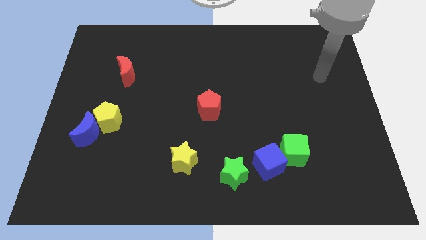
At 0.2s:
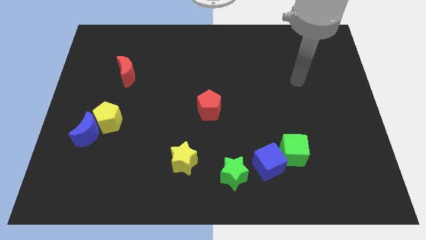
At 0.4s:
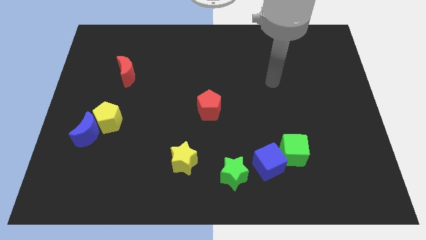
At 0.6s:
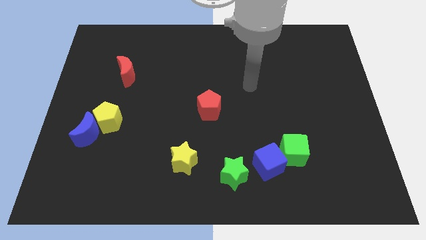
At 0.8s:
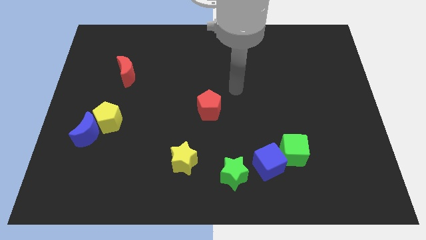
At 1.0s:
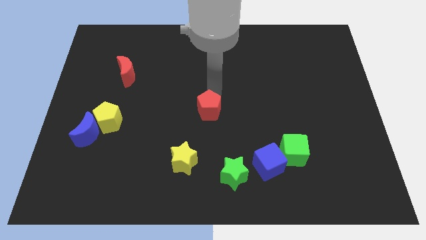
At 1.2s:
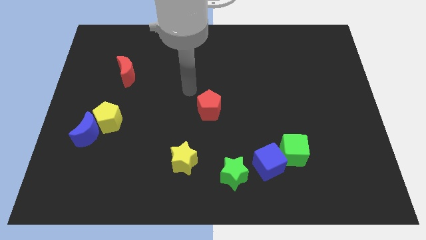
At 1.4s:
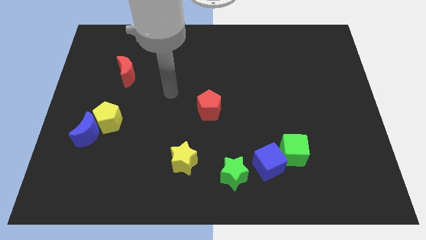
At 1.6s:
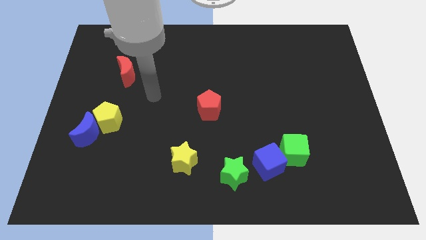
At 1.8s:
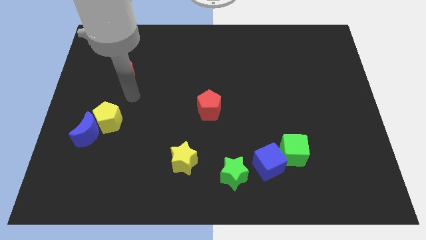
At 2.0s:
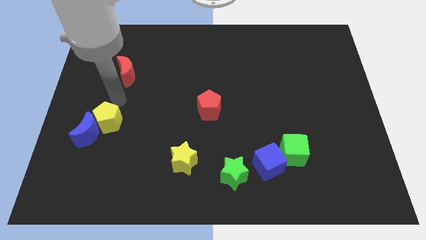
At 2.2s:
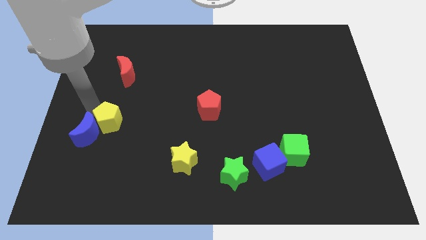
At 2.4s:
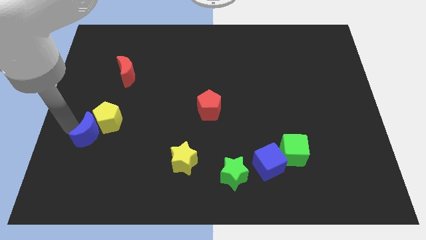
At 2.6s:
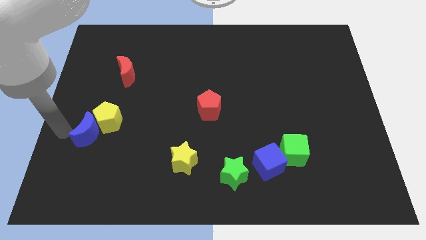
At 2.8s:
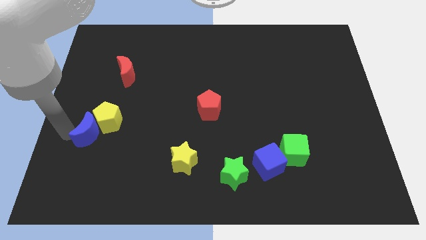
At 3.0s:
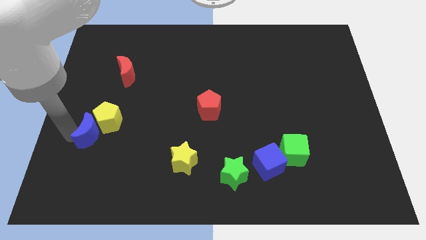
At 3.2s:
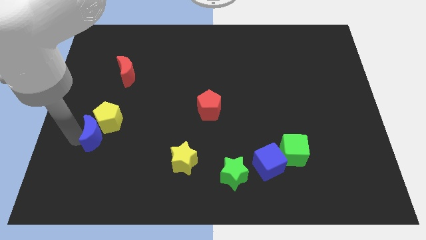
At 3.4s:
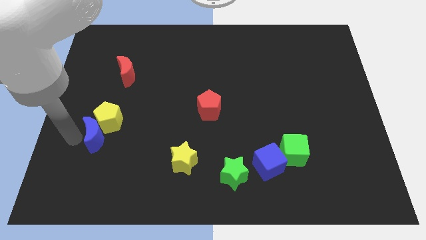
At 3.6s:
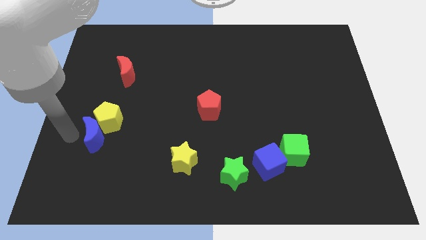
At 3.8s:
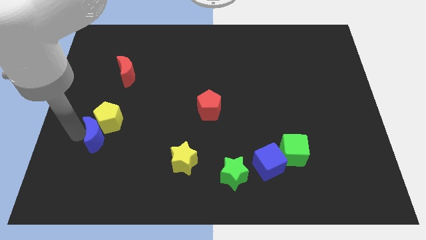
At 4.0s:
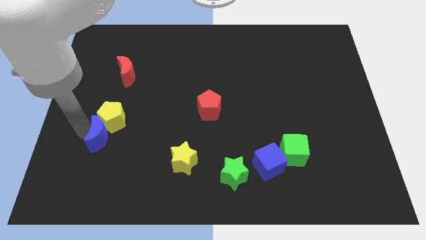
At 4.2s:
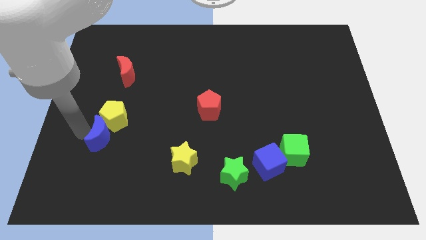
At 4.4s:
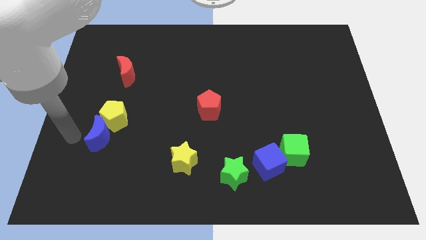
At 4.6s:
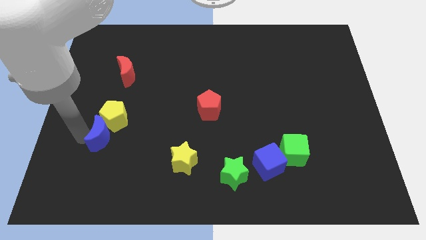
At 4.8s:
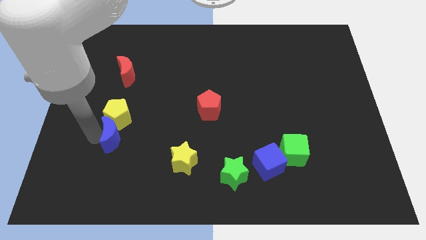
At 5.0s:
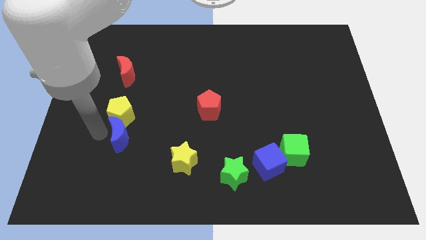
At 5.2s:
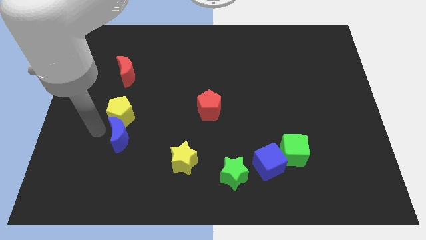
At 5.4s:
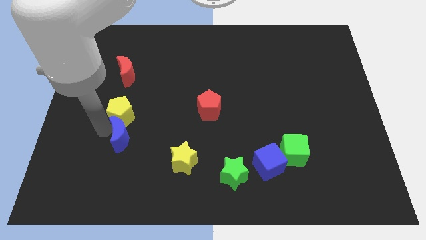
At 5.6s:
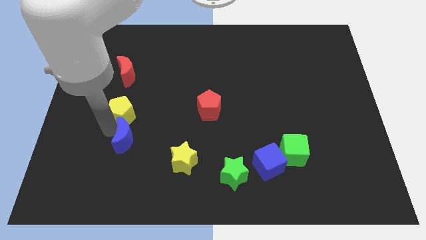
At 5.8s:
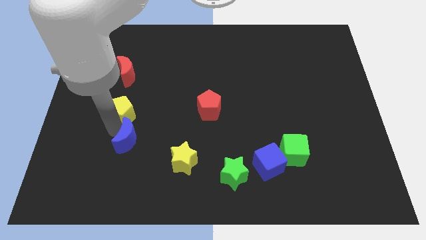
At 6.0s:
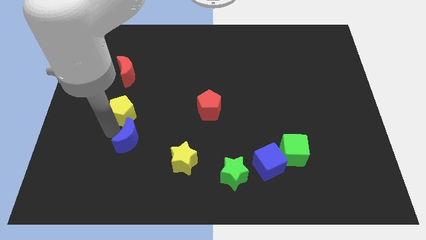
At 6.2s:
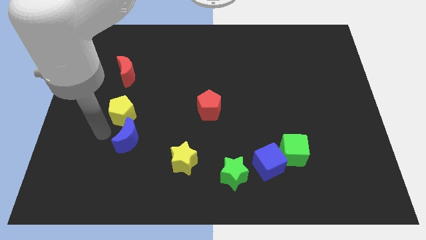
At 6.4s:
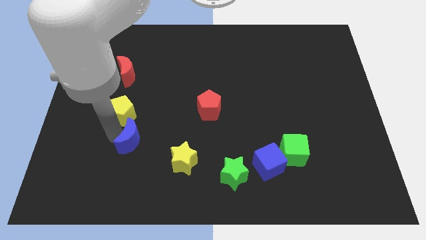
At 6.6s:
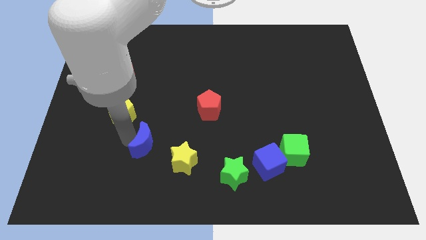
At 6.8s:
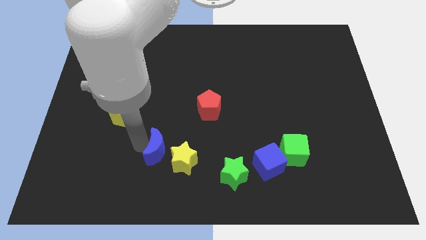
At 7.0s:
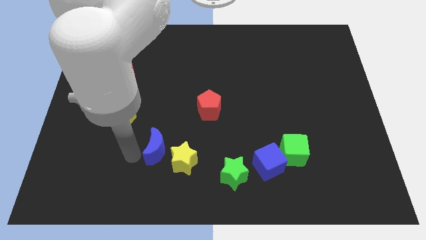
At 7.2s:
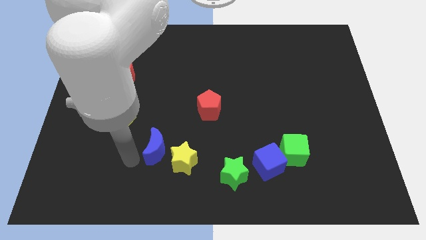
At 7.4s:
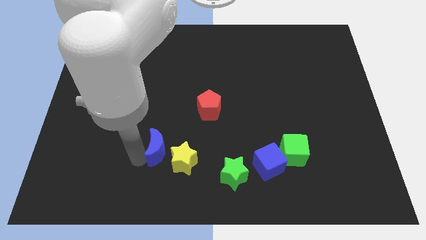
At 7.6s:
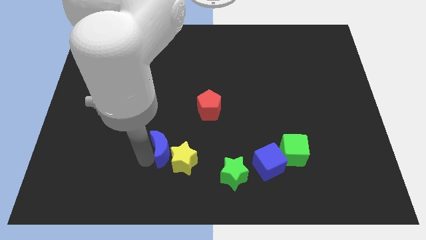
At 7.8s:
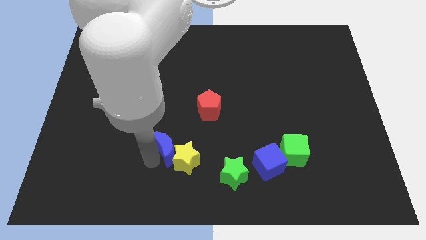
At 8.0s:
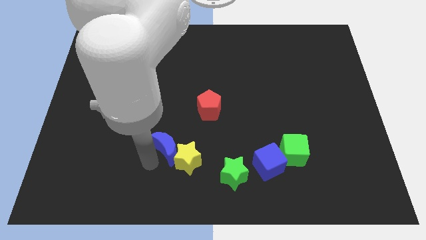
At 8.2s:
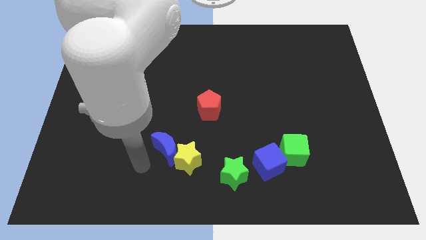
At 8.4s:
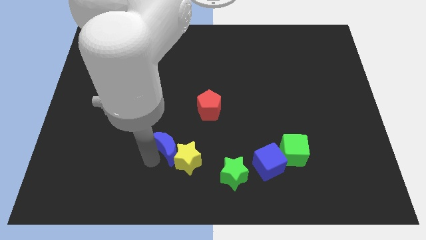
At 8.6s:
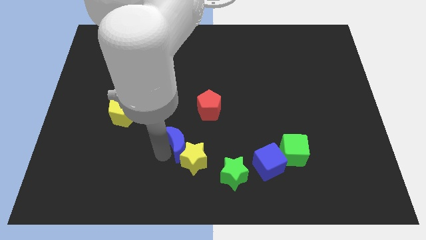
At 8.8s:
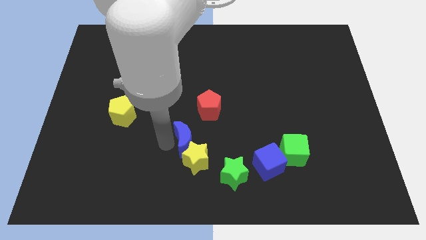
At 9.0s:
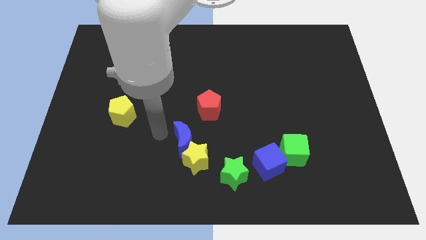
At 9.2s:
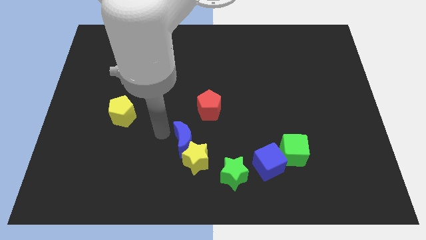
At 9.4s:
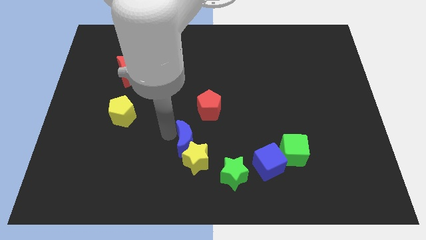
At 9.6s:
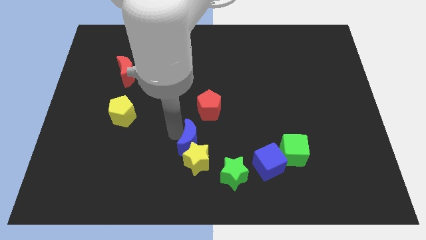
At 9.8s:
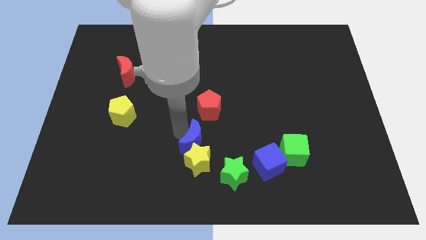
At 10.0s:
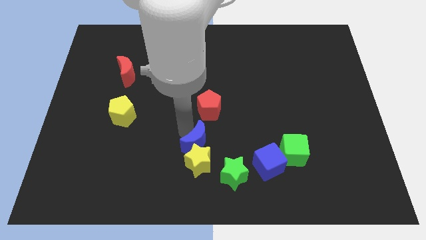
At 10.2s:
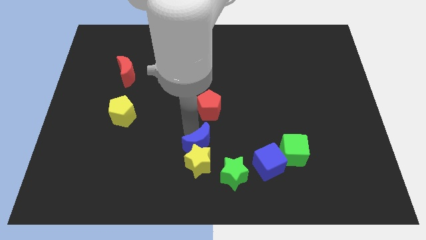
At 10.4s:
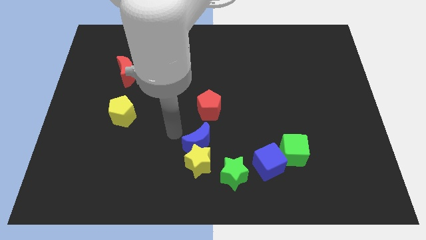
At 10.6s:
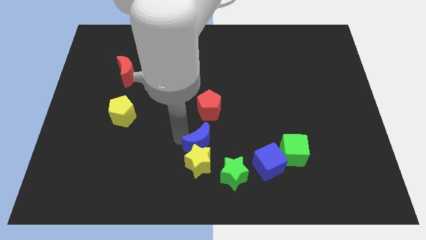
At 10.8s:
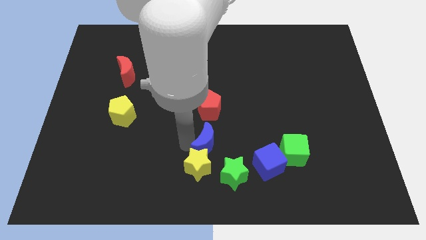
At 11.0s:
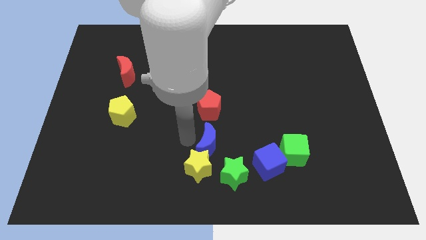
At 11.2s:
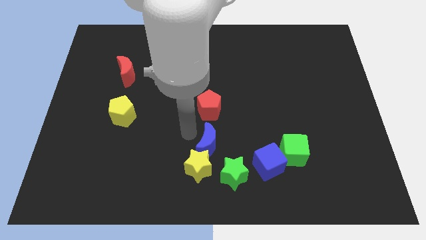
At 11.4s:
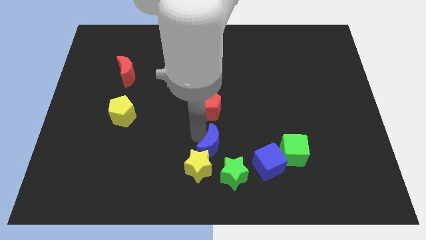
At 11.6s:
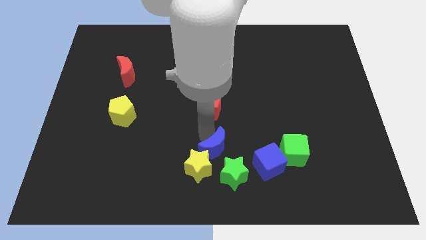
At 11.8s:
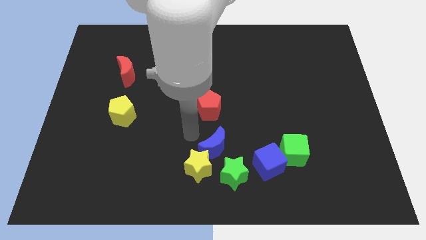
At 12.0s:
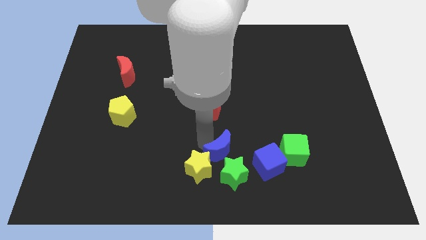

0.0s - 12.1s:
push the blue moon right of the yellow star

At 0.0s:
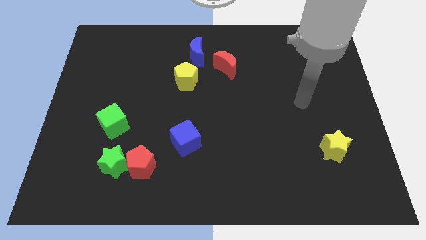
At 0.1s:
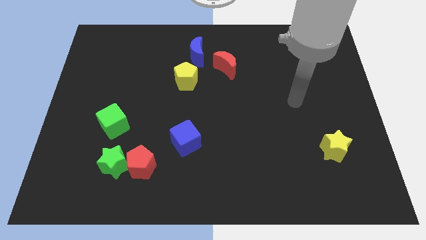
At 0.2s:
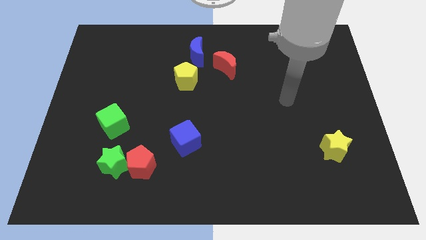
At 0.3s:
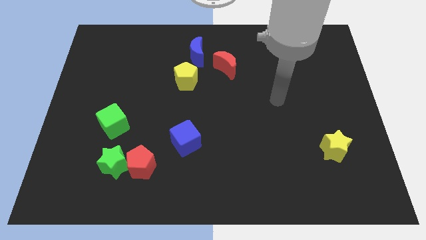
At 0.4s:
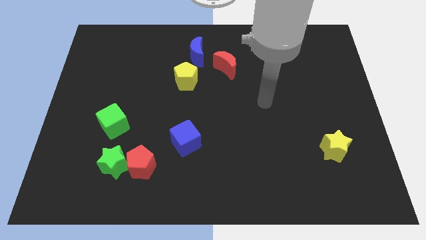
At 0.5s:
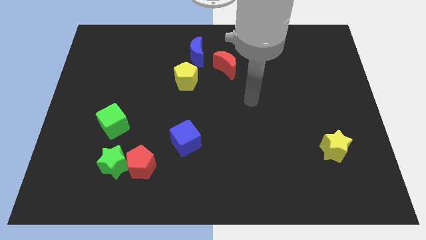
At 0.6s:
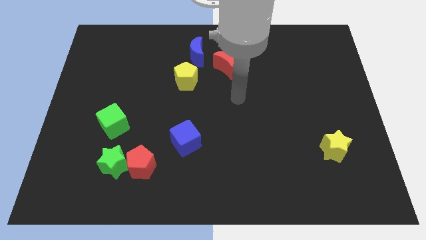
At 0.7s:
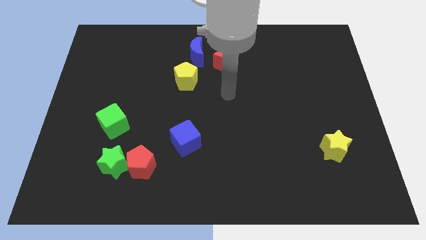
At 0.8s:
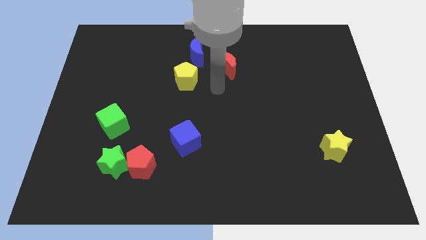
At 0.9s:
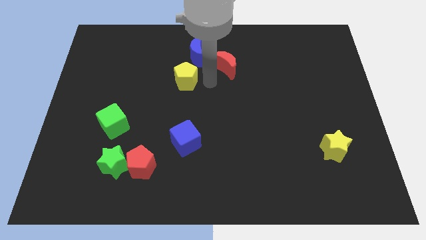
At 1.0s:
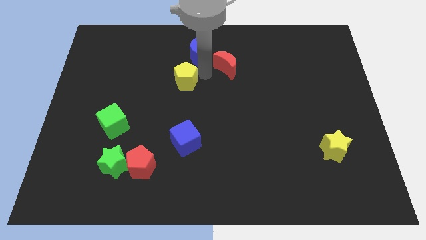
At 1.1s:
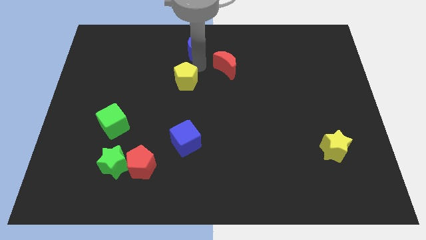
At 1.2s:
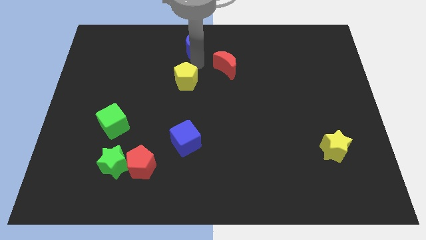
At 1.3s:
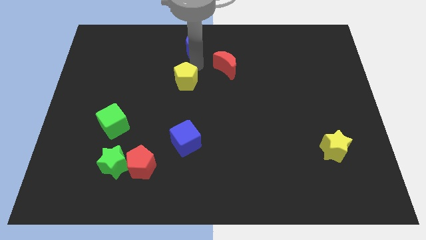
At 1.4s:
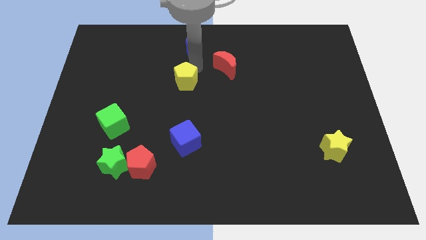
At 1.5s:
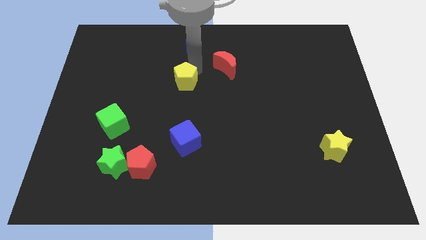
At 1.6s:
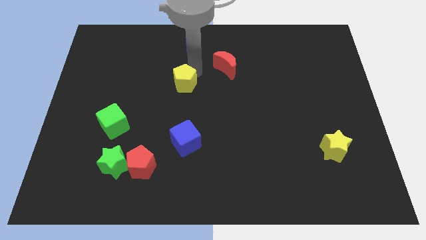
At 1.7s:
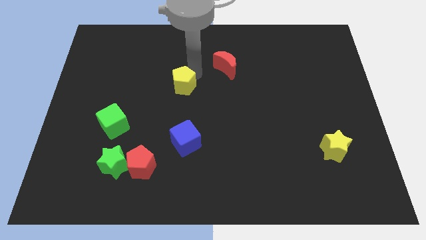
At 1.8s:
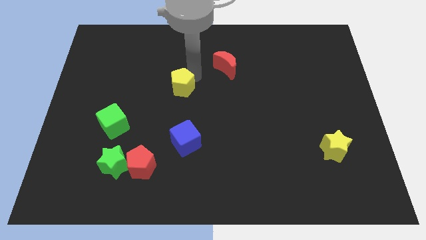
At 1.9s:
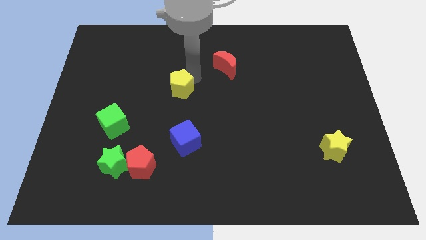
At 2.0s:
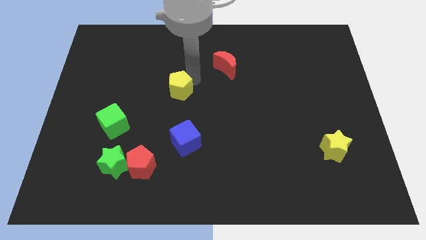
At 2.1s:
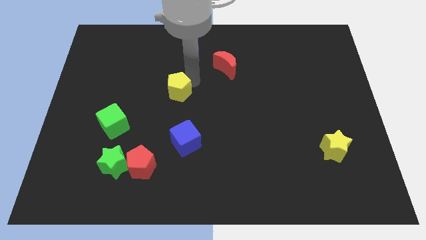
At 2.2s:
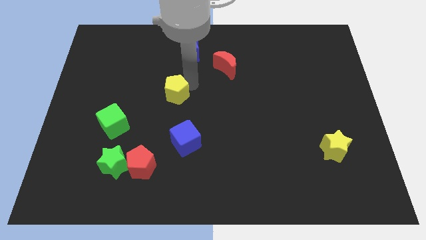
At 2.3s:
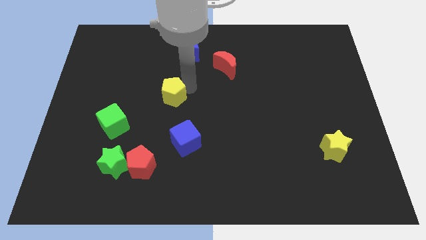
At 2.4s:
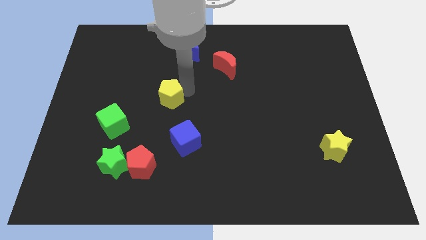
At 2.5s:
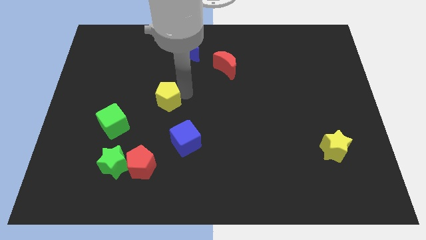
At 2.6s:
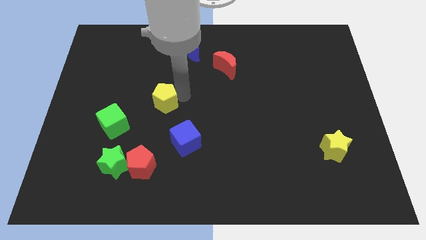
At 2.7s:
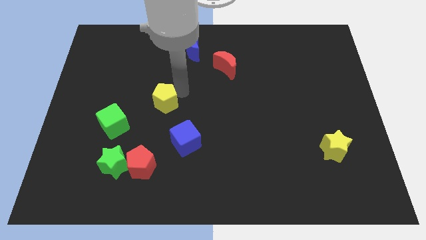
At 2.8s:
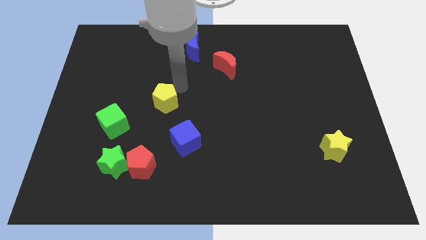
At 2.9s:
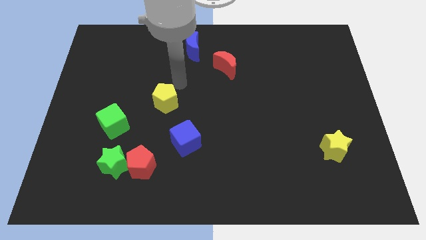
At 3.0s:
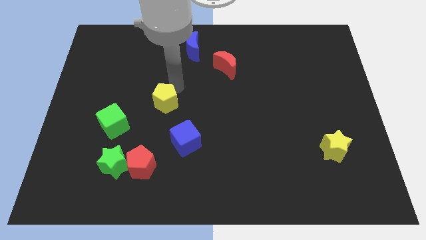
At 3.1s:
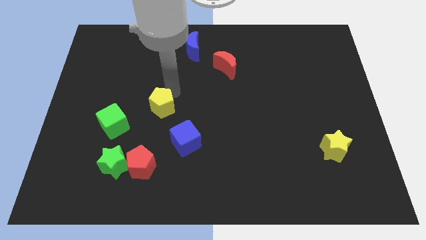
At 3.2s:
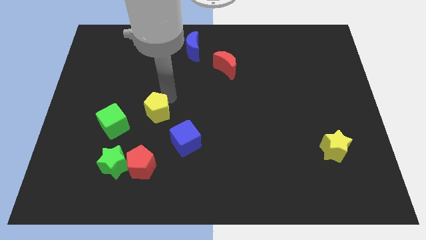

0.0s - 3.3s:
move the yellow pentagon to the top of the red pentagon
